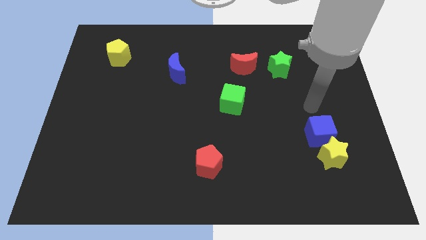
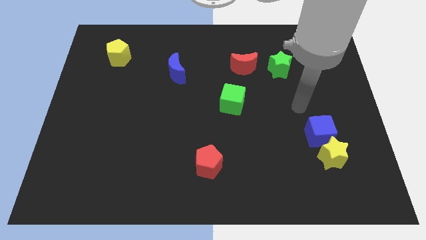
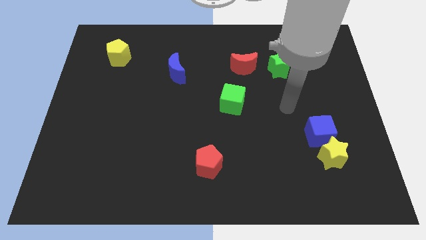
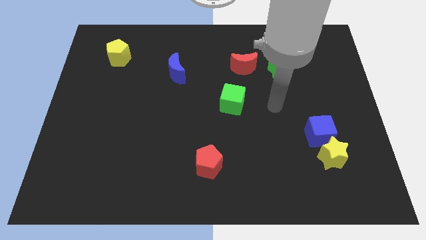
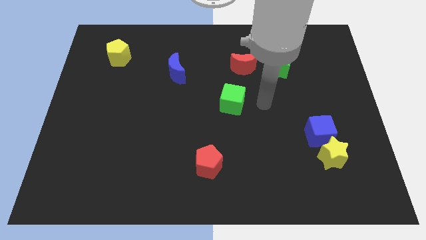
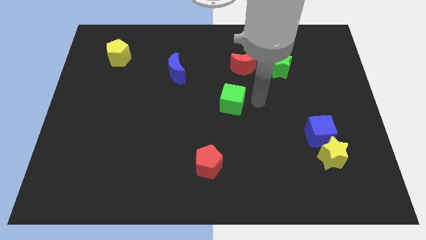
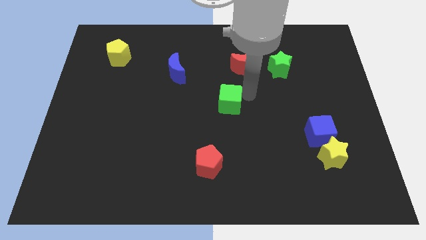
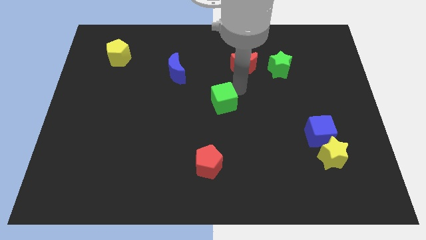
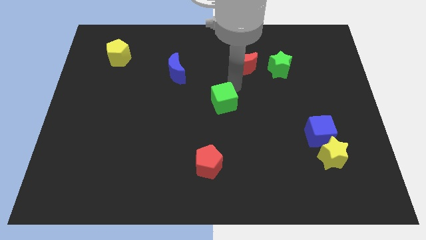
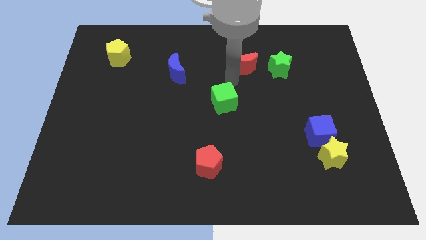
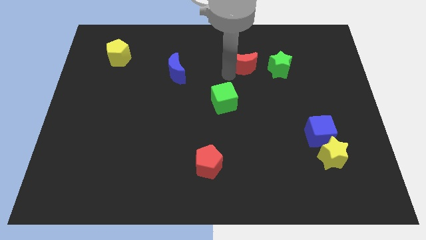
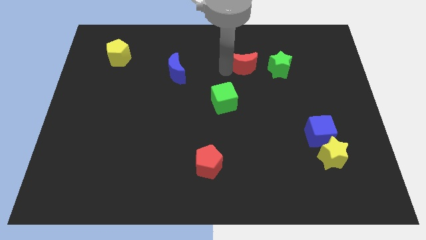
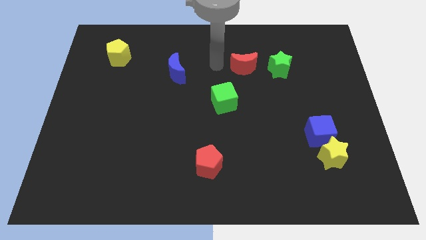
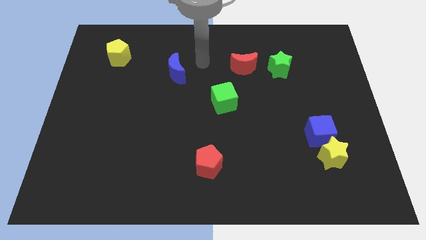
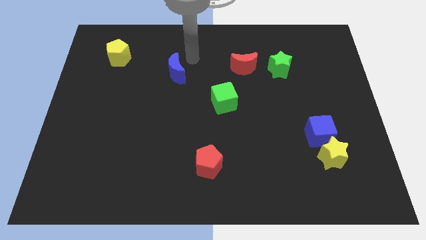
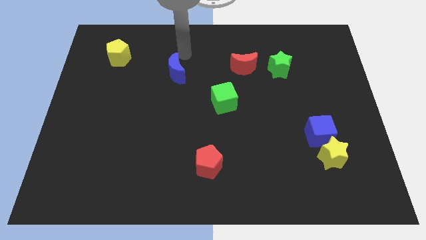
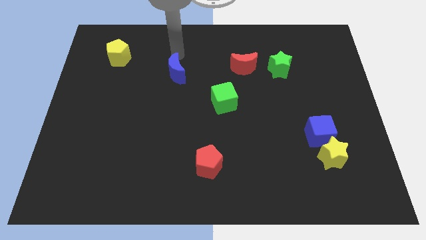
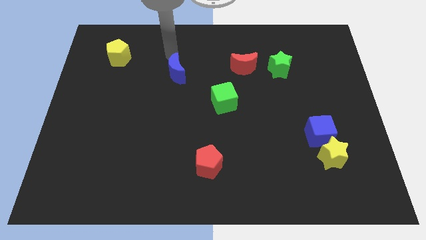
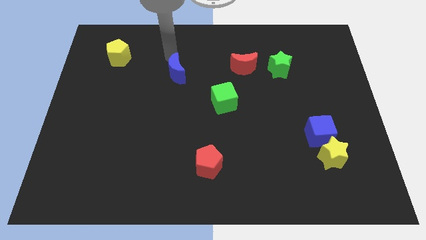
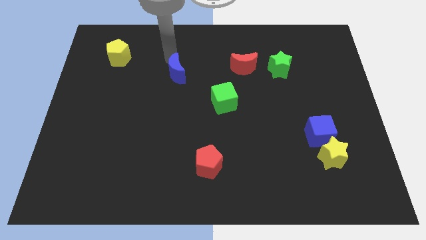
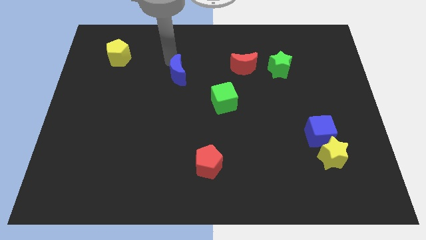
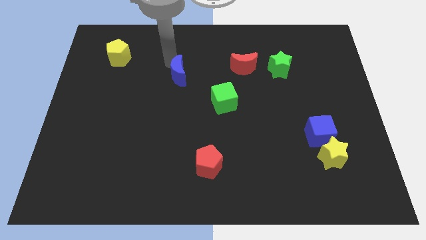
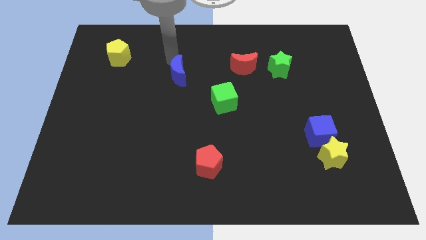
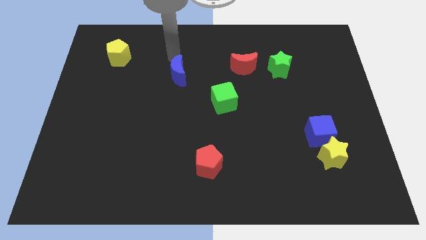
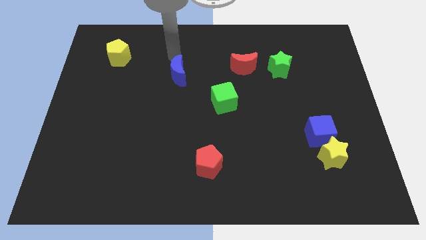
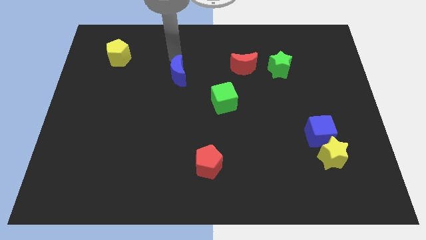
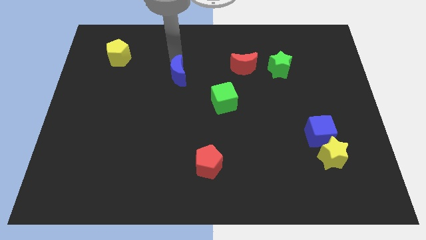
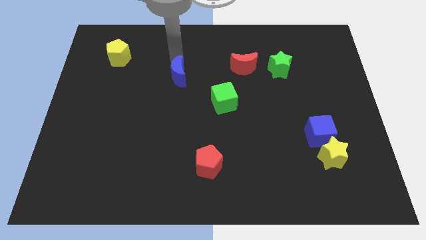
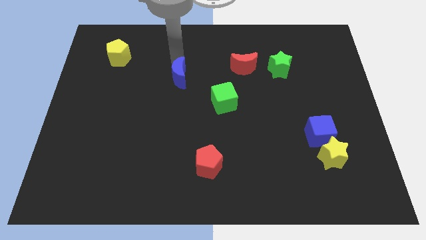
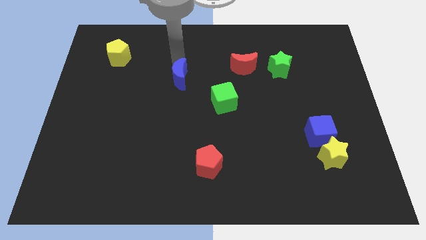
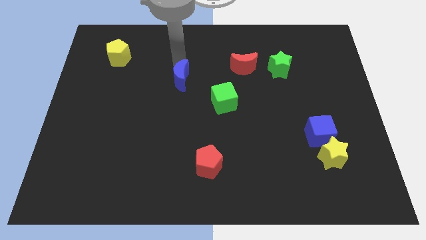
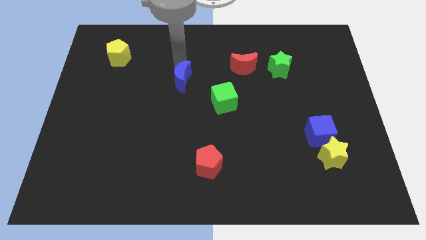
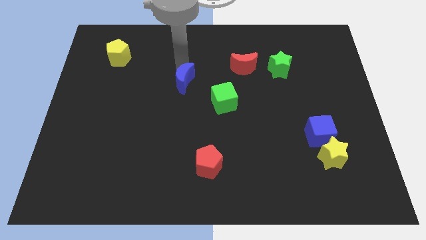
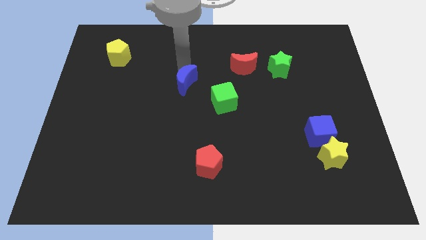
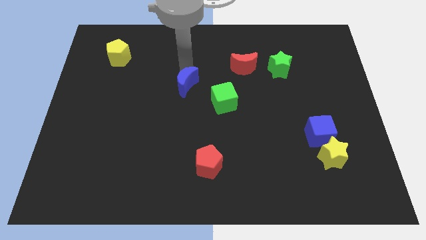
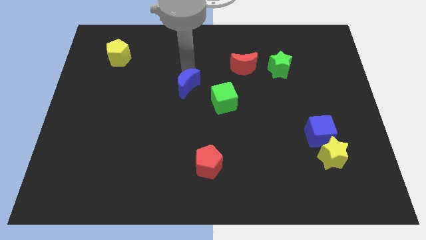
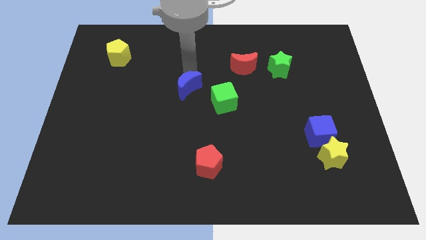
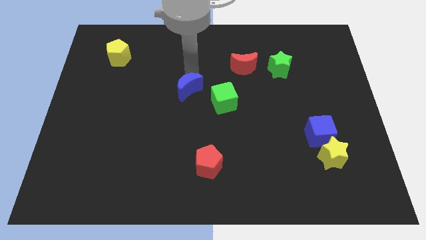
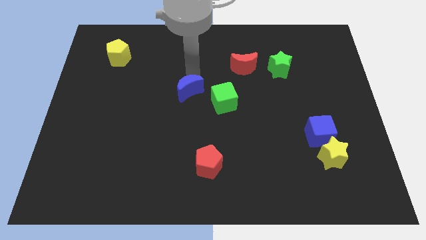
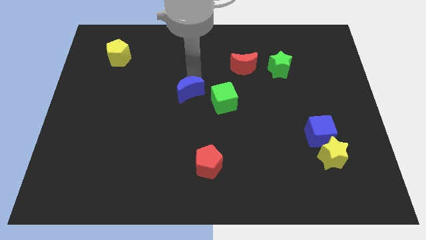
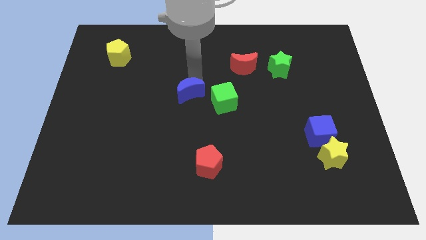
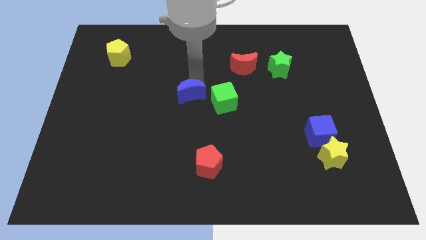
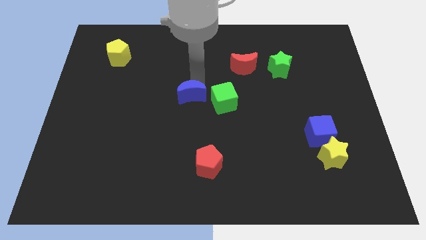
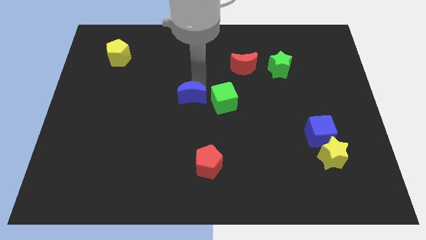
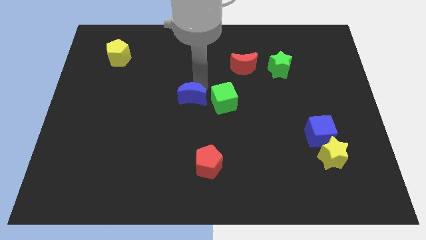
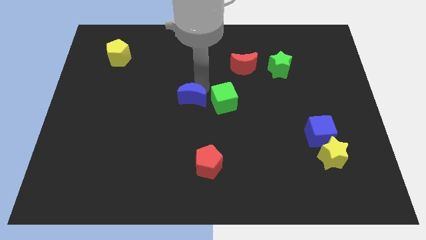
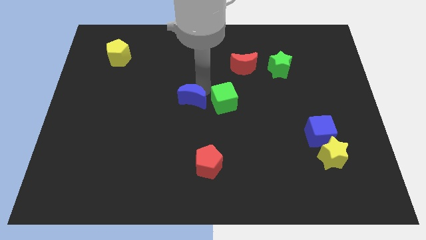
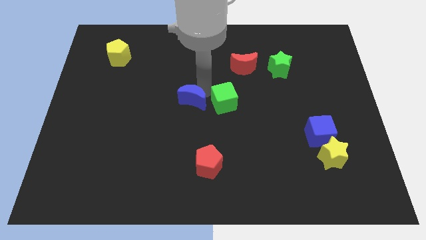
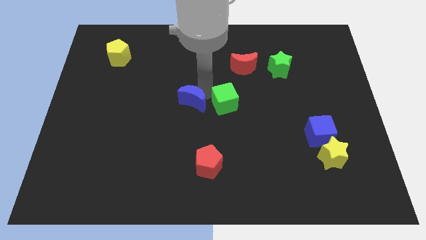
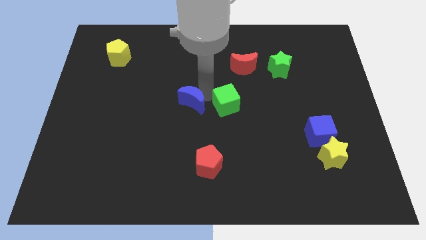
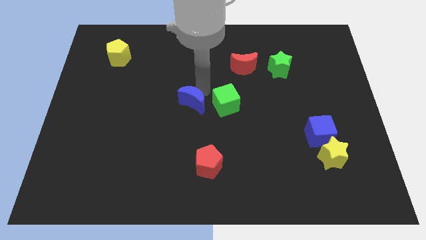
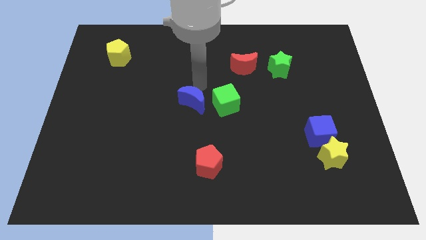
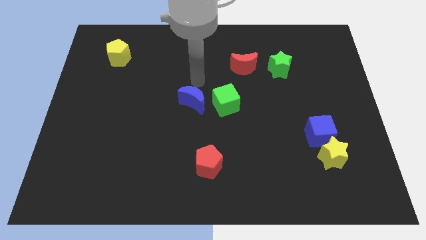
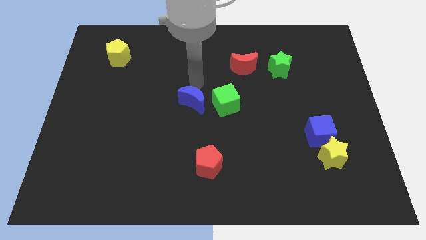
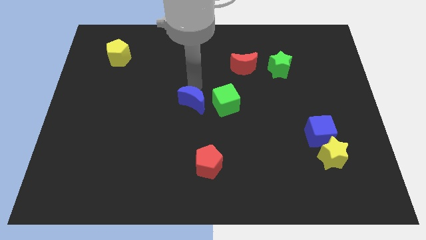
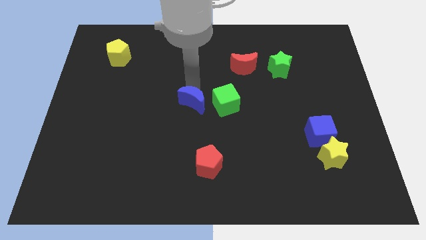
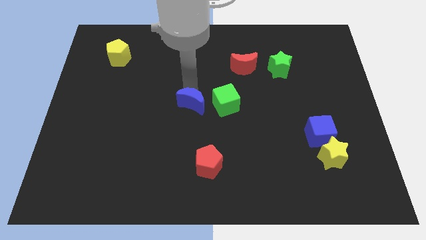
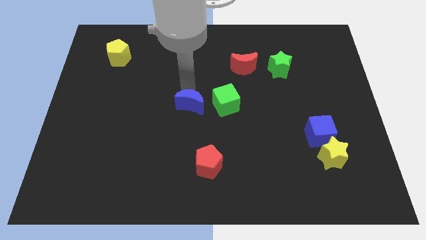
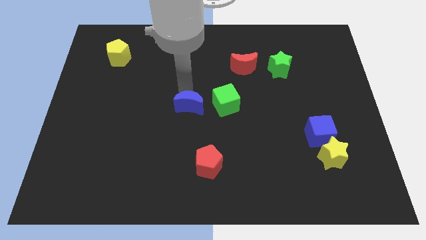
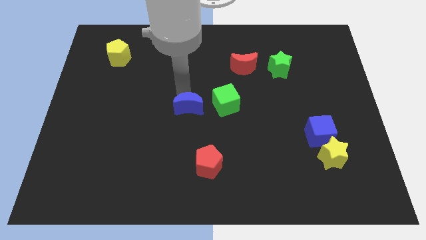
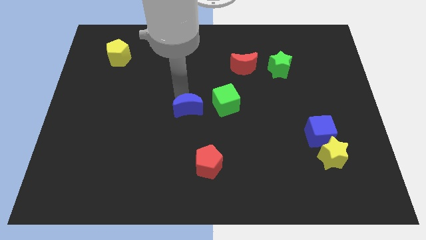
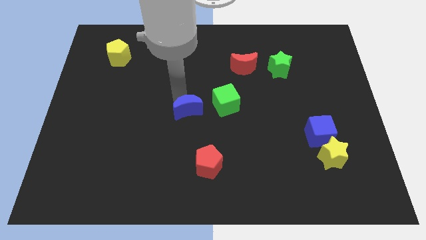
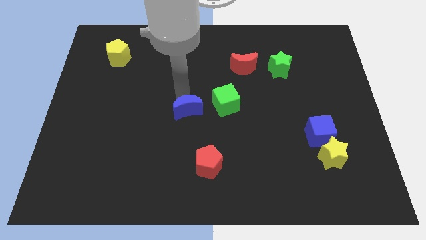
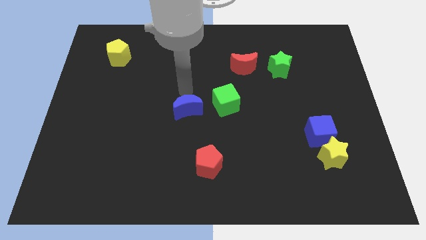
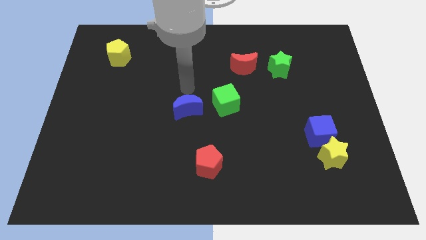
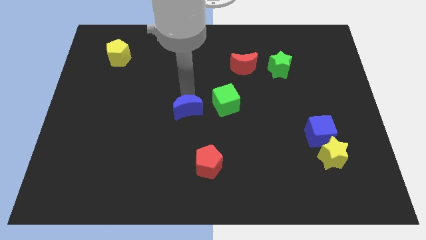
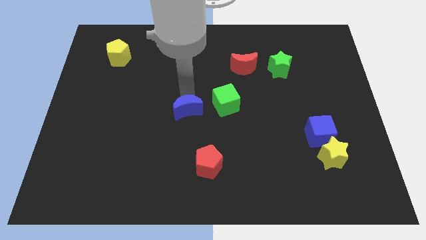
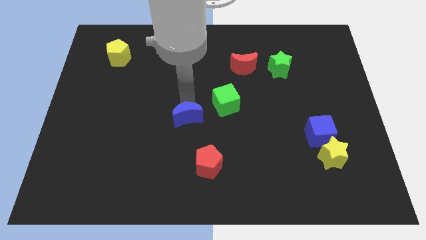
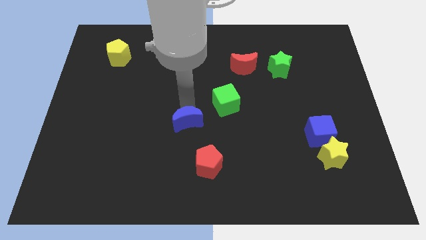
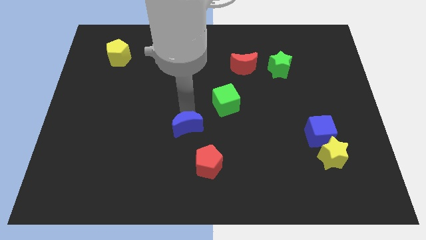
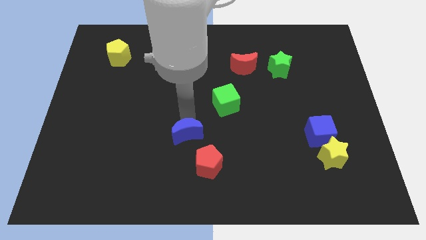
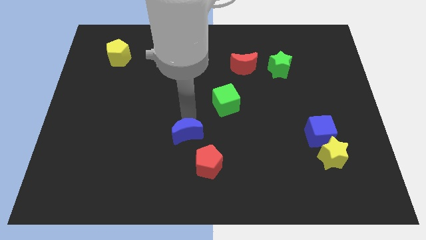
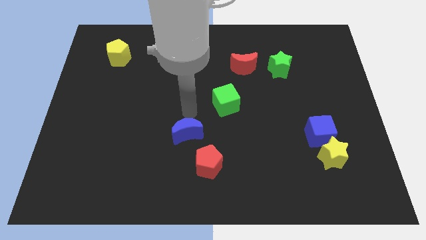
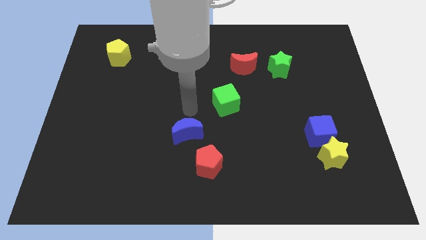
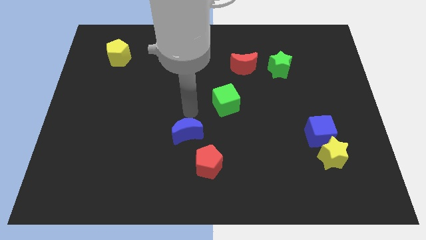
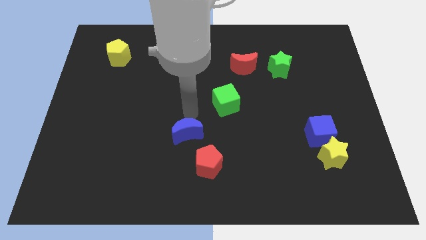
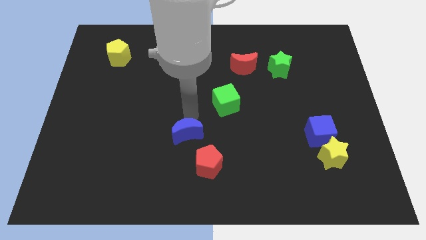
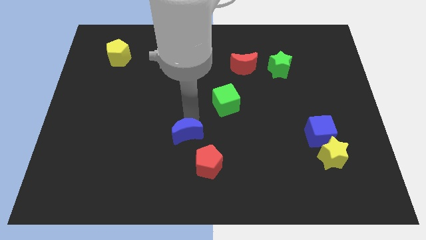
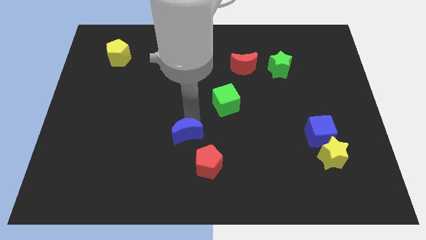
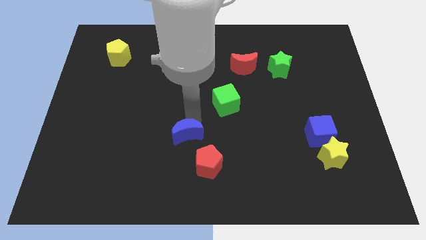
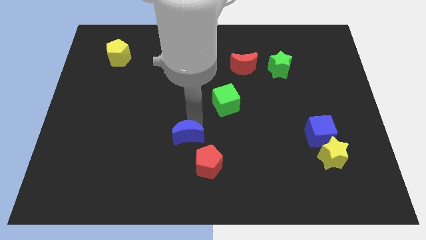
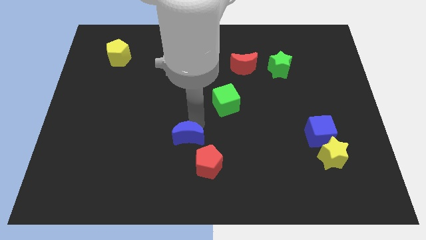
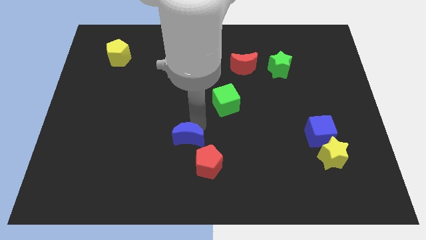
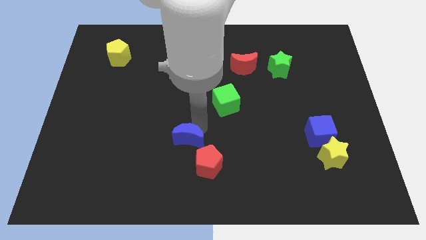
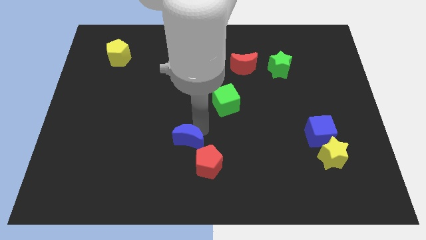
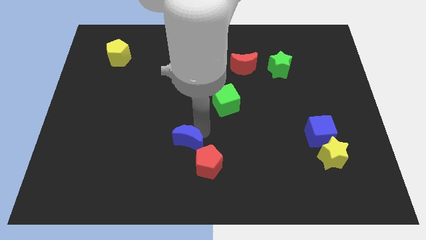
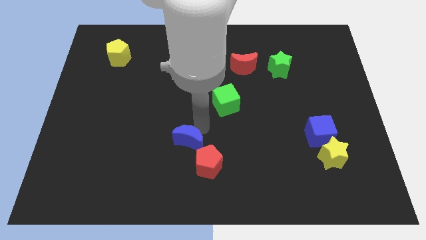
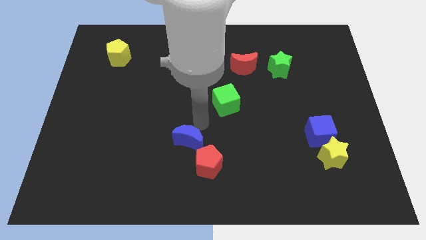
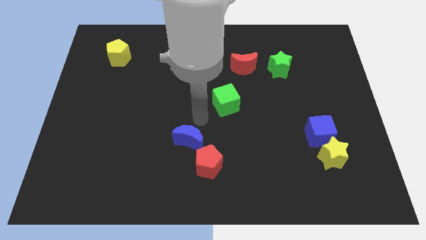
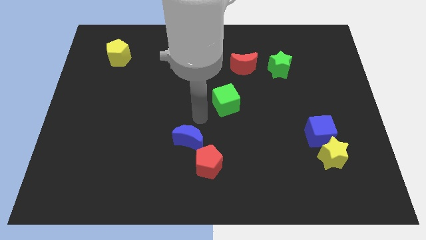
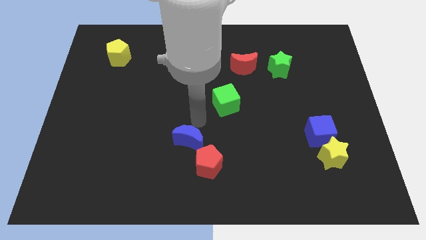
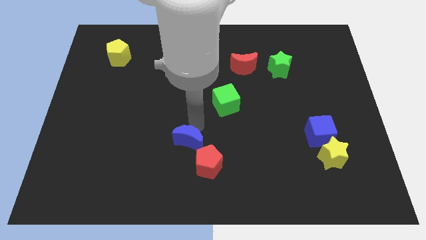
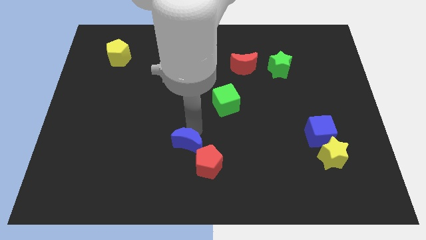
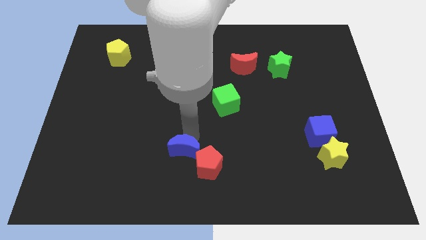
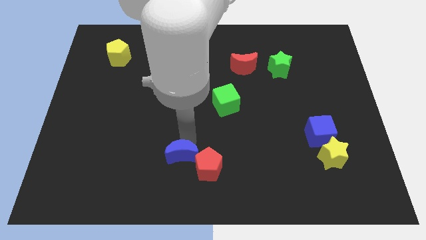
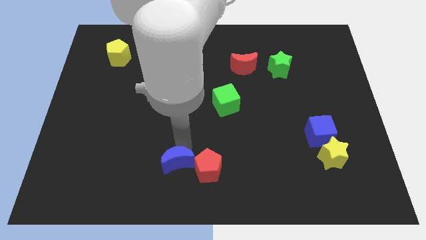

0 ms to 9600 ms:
put the blue moon to the bottom side
